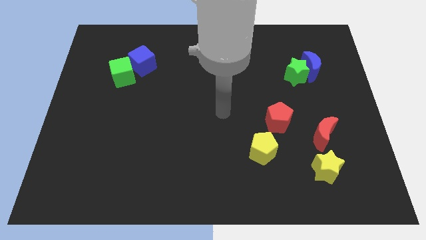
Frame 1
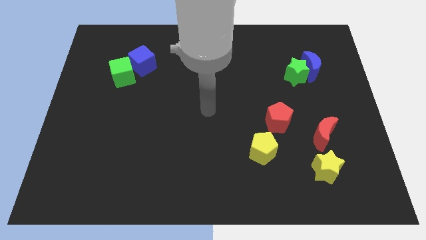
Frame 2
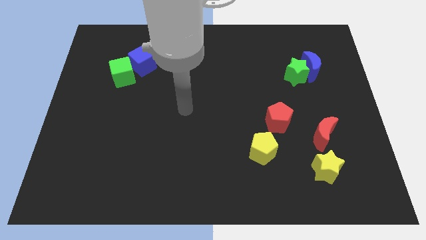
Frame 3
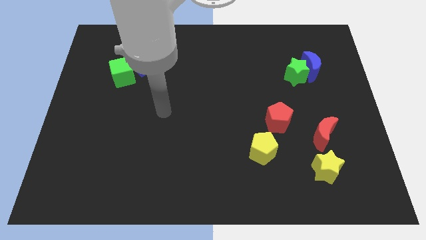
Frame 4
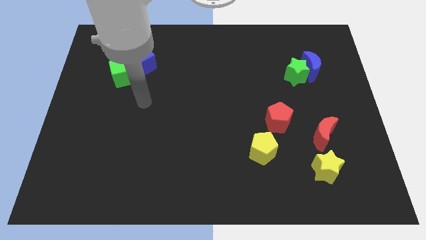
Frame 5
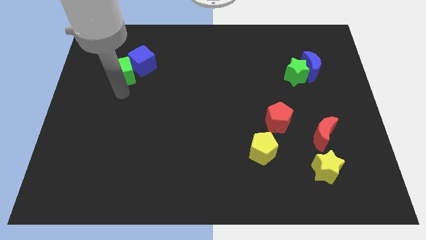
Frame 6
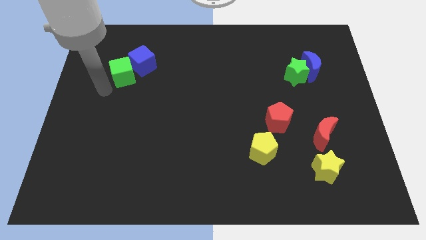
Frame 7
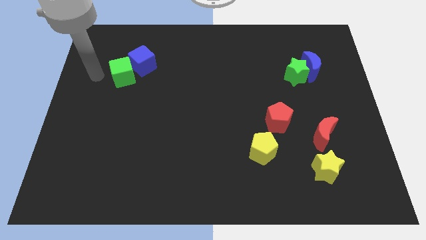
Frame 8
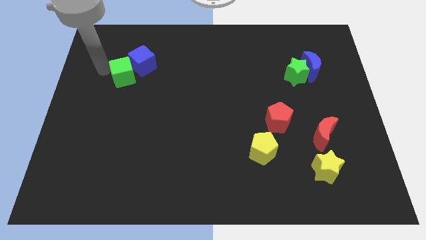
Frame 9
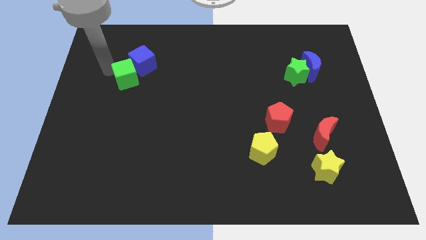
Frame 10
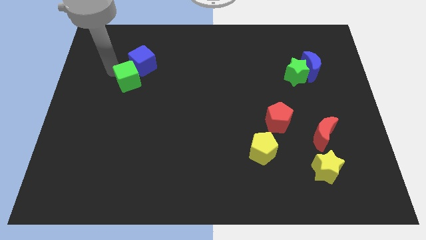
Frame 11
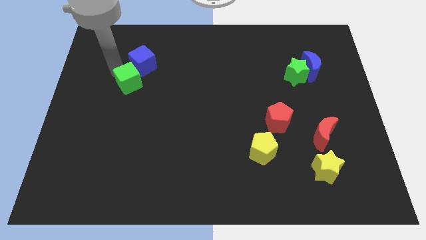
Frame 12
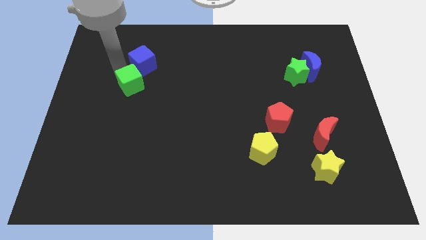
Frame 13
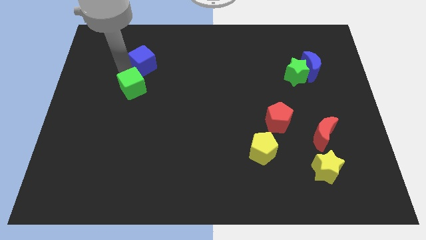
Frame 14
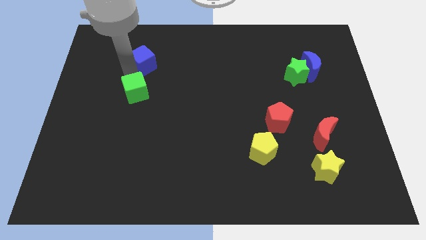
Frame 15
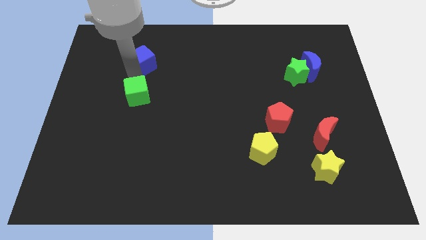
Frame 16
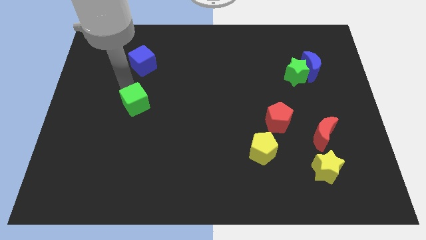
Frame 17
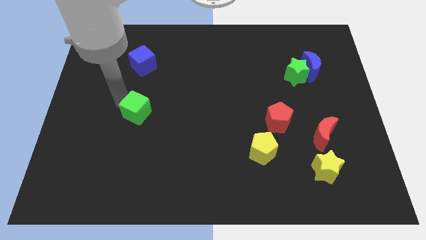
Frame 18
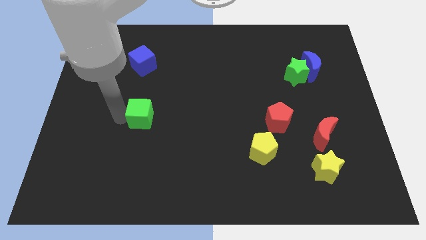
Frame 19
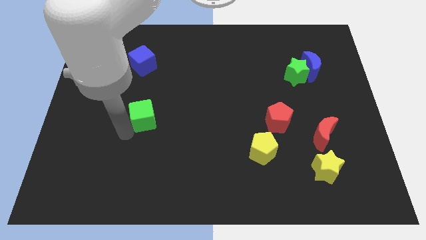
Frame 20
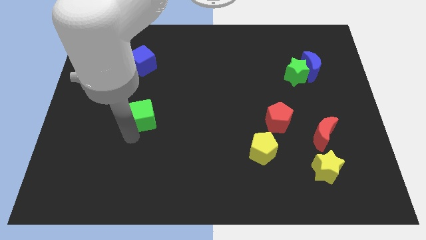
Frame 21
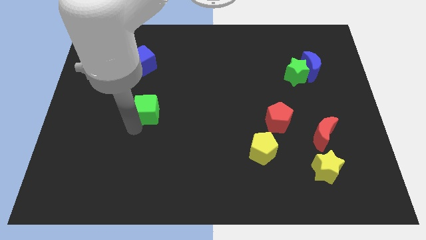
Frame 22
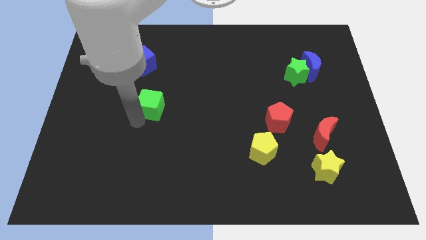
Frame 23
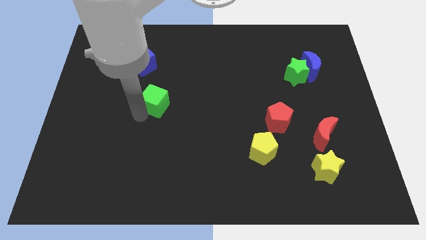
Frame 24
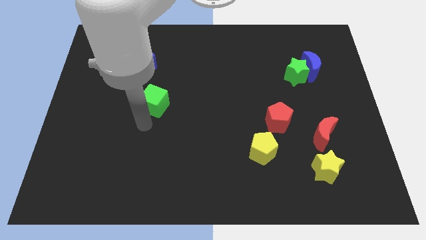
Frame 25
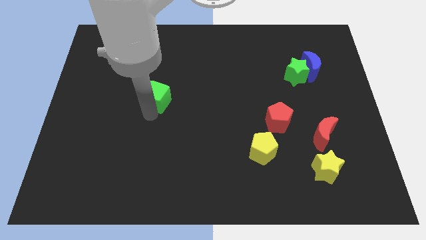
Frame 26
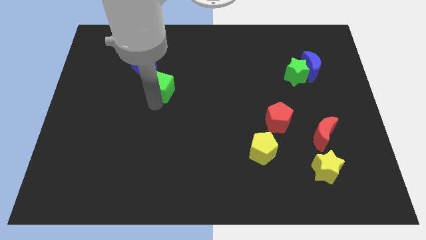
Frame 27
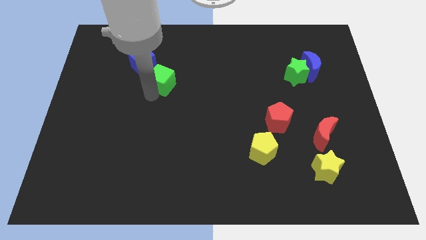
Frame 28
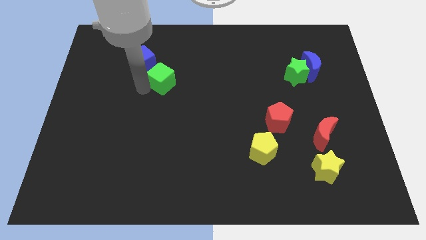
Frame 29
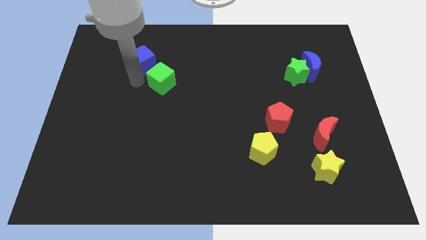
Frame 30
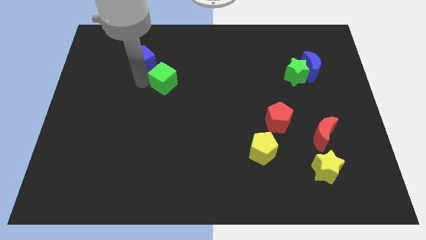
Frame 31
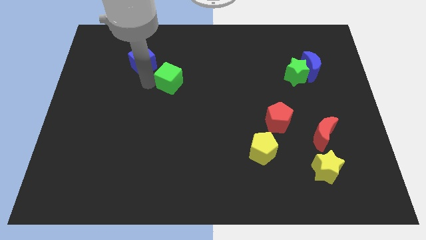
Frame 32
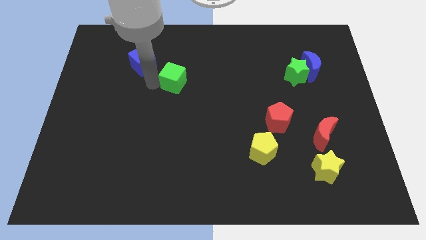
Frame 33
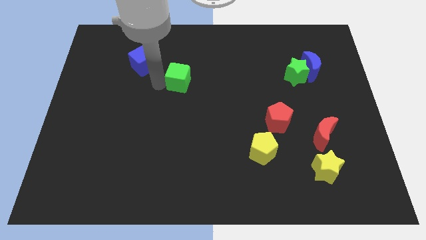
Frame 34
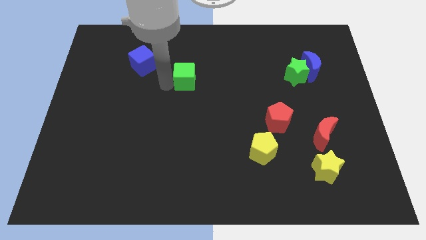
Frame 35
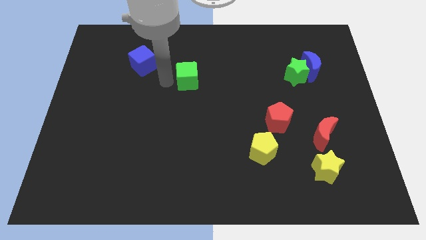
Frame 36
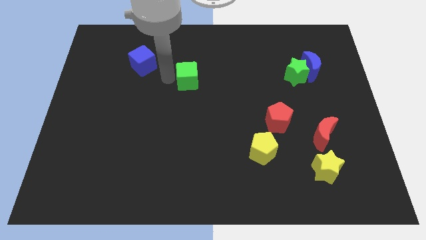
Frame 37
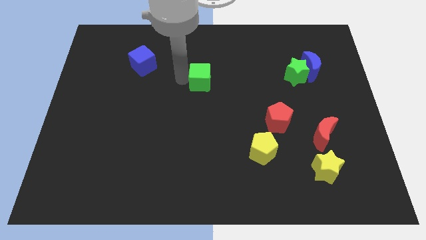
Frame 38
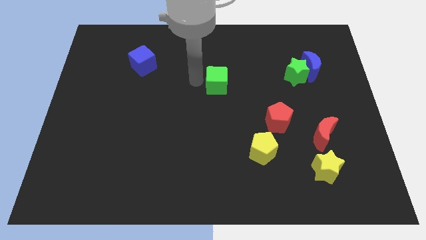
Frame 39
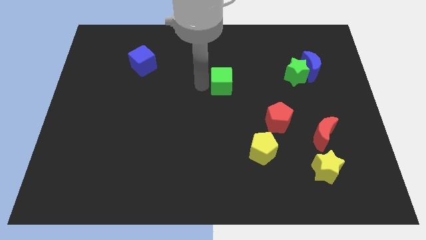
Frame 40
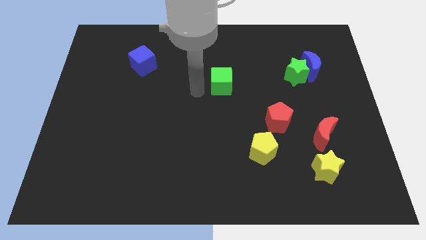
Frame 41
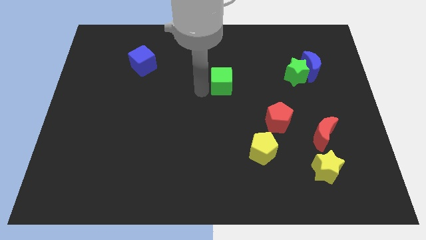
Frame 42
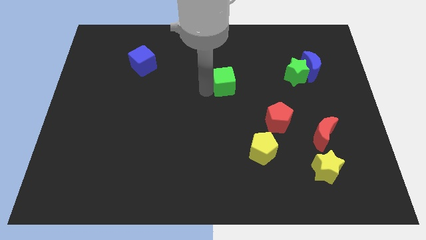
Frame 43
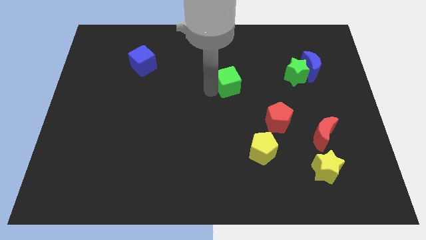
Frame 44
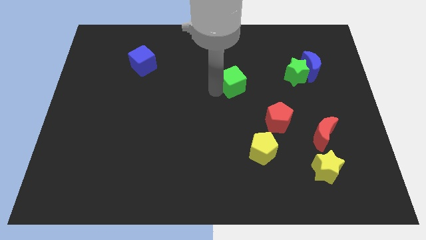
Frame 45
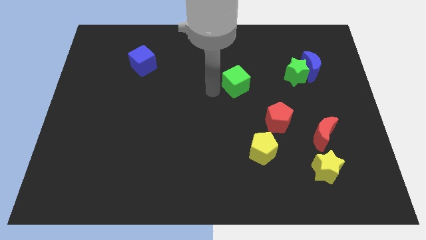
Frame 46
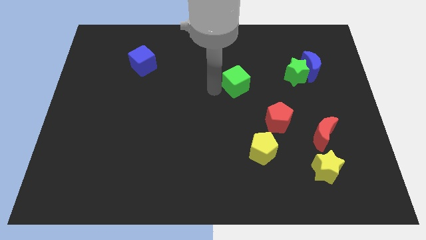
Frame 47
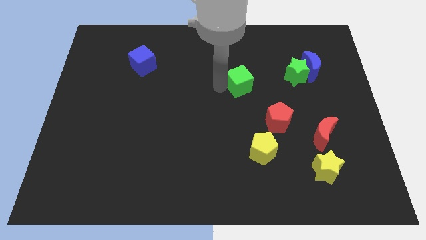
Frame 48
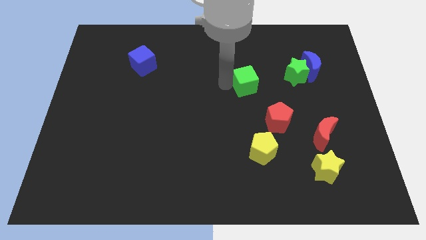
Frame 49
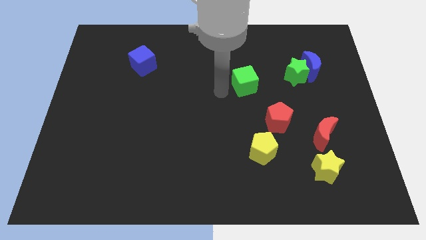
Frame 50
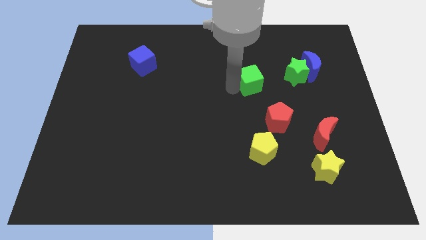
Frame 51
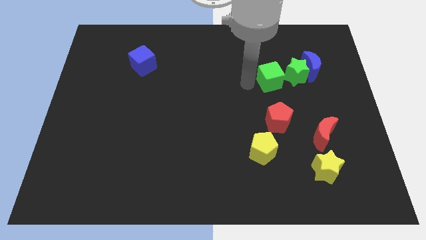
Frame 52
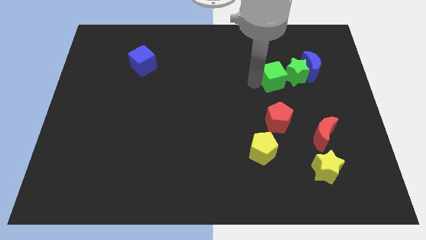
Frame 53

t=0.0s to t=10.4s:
push the green cube towards the green star

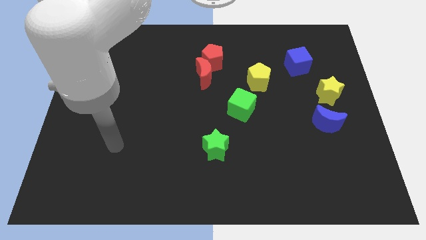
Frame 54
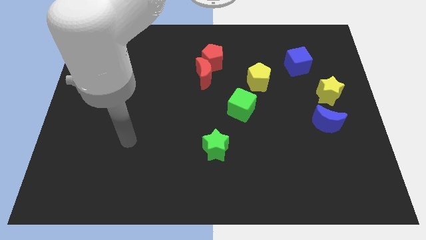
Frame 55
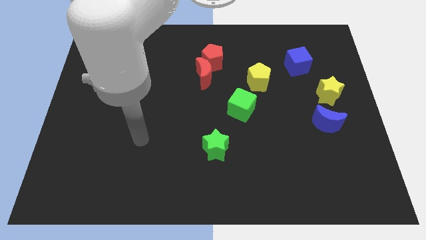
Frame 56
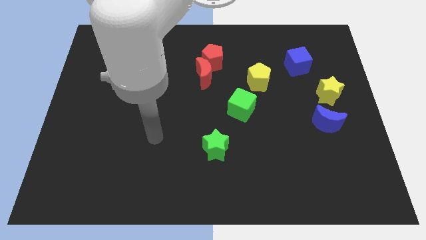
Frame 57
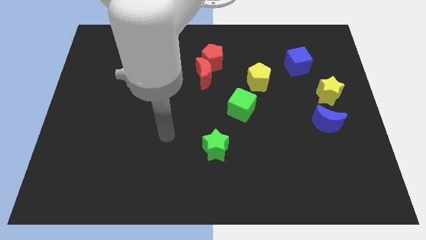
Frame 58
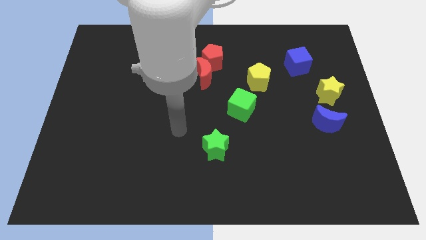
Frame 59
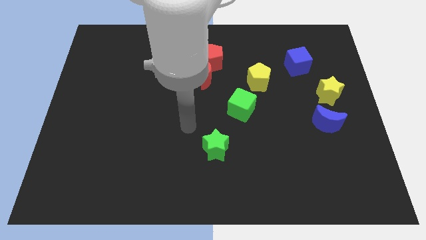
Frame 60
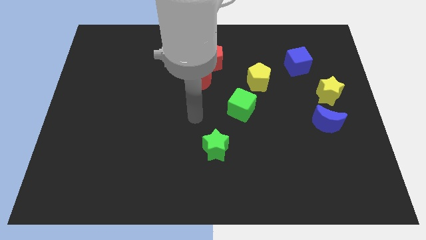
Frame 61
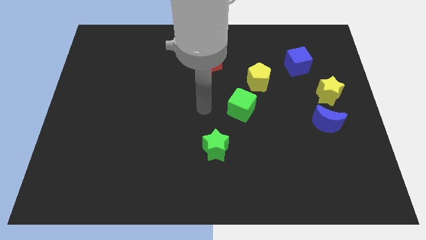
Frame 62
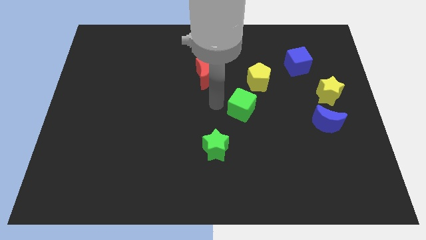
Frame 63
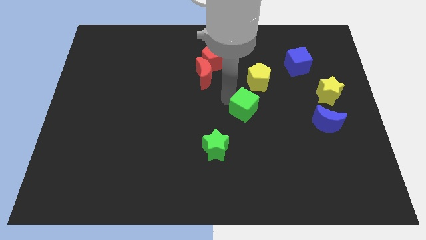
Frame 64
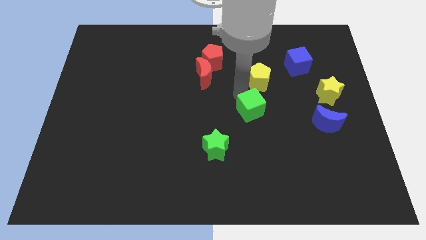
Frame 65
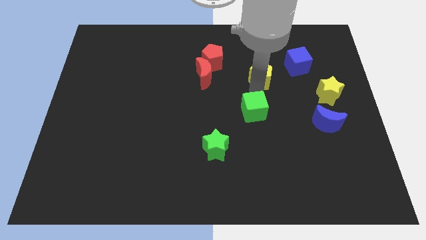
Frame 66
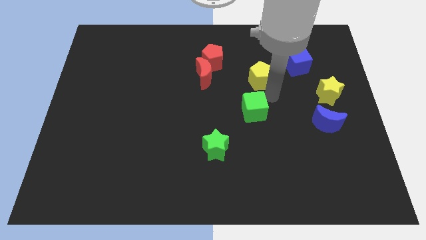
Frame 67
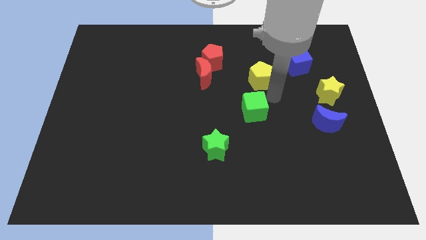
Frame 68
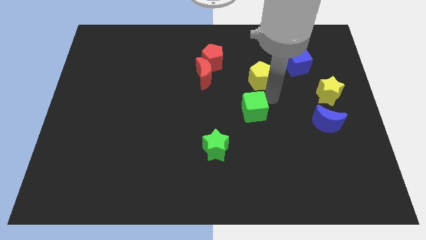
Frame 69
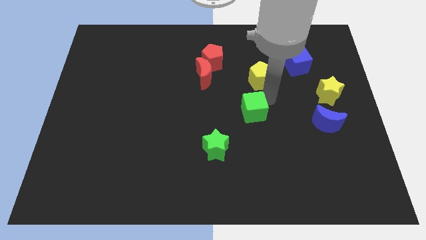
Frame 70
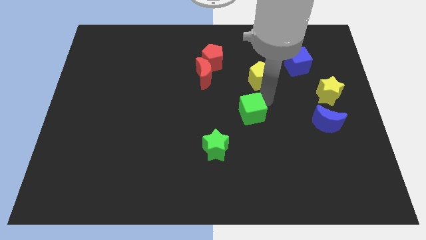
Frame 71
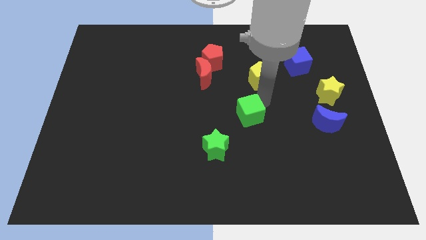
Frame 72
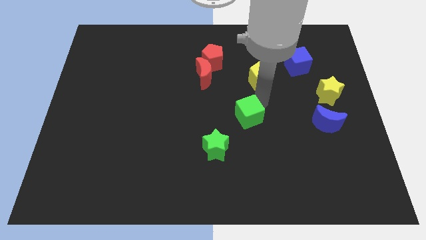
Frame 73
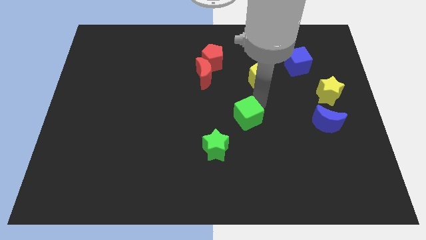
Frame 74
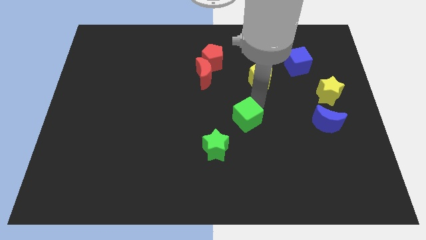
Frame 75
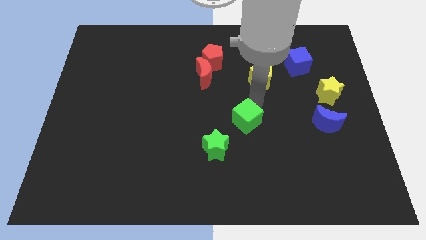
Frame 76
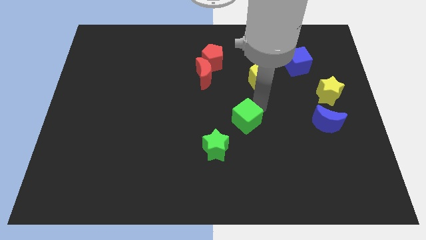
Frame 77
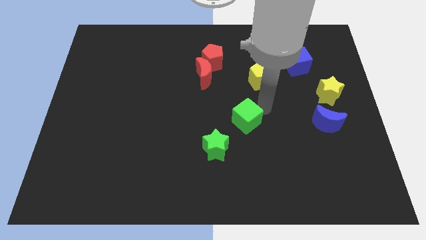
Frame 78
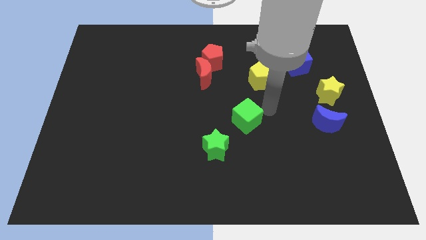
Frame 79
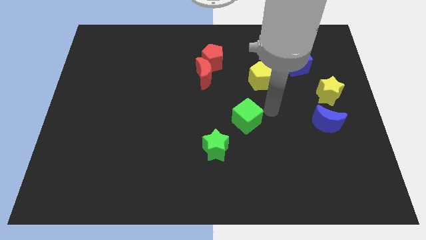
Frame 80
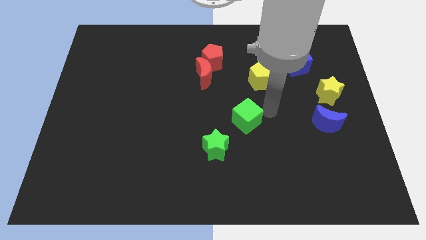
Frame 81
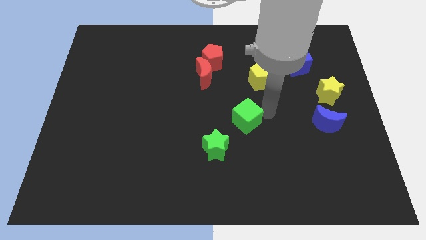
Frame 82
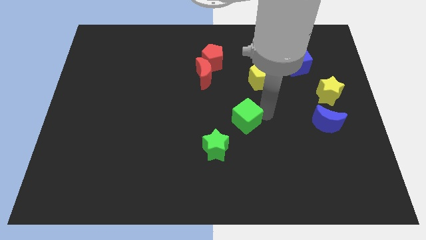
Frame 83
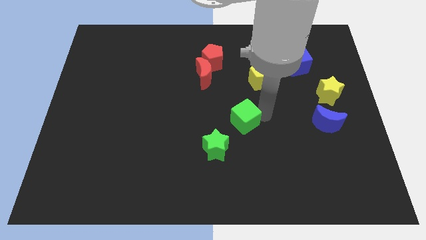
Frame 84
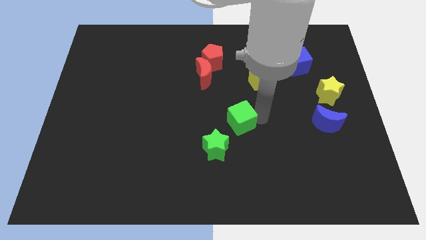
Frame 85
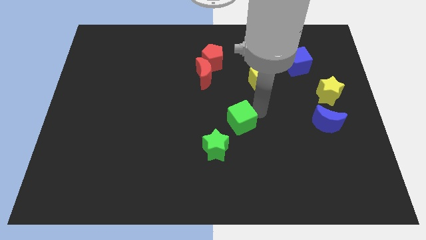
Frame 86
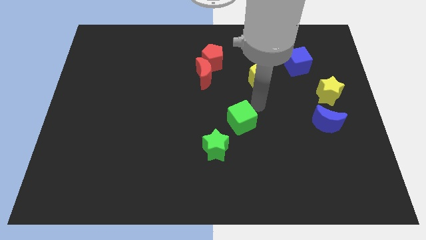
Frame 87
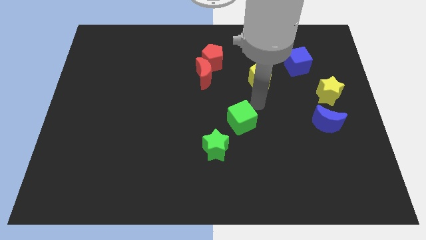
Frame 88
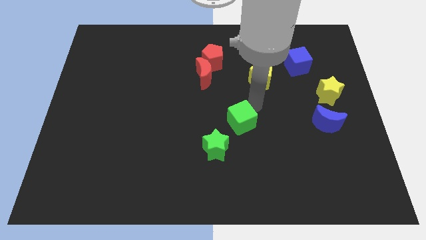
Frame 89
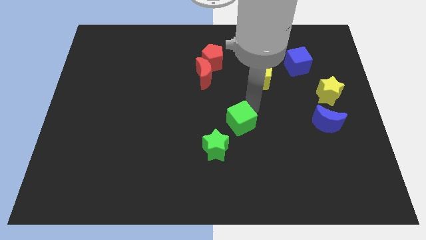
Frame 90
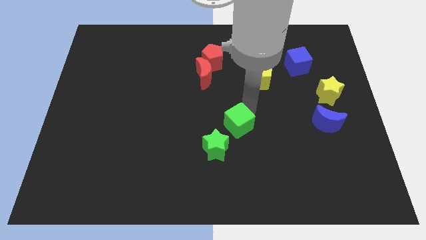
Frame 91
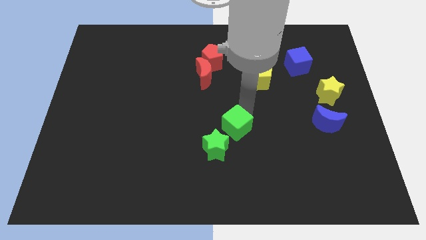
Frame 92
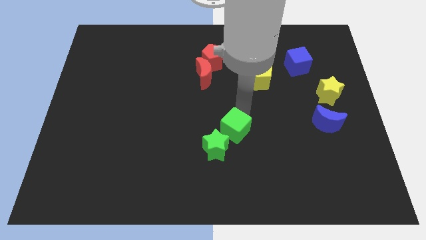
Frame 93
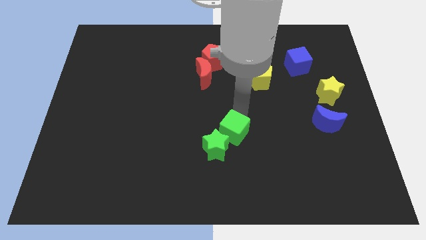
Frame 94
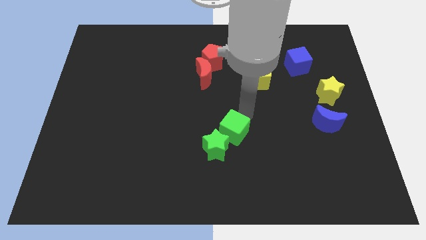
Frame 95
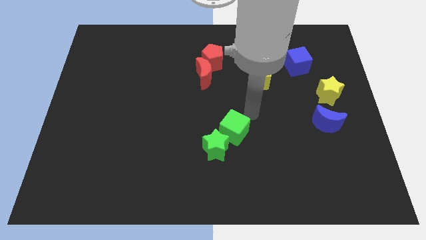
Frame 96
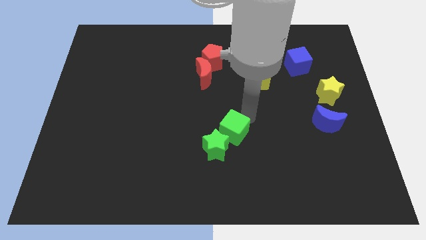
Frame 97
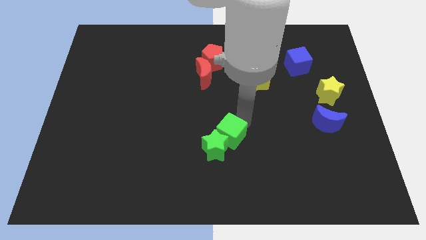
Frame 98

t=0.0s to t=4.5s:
push the green cube close to the green star
